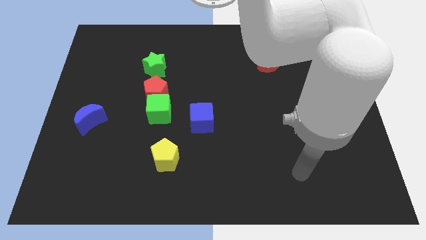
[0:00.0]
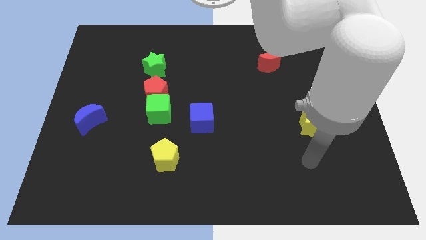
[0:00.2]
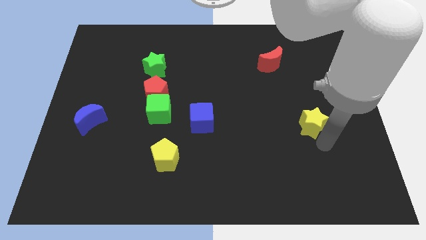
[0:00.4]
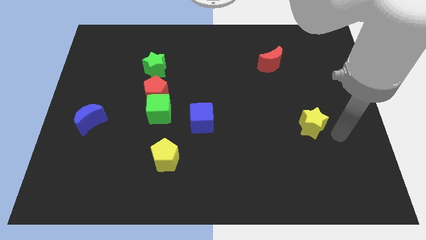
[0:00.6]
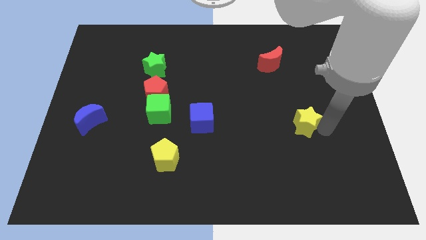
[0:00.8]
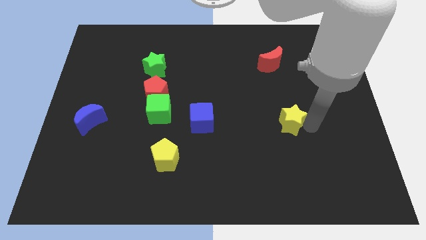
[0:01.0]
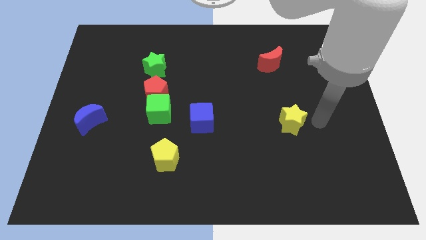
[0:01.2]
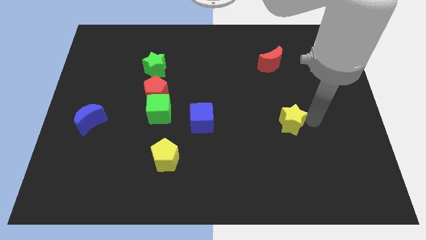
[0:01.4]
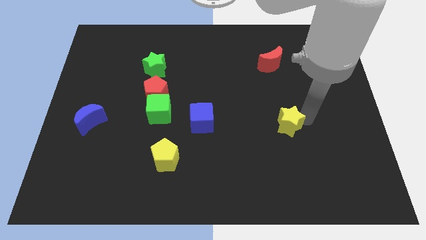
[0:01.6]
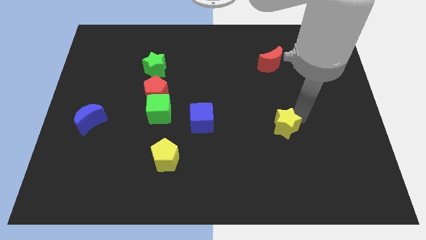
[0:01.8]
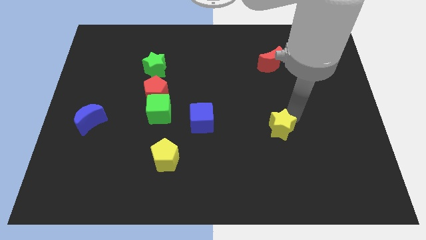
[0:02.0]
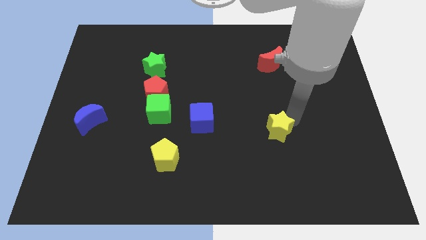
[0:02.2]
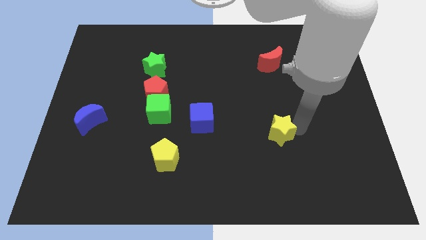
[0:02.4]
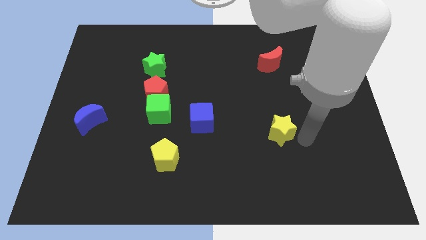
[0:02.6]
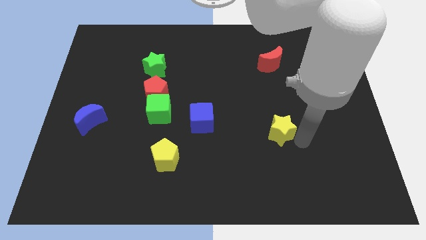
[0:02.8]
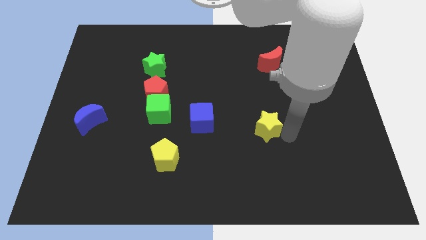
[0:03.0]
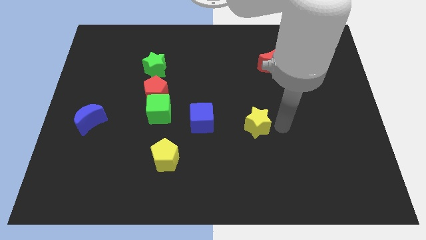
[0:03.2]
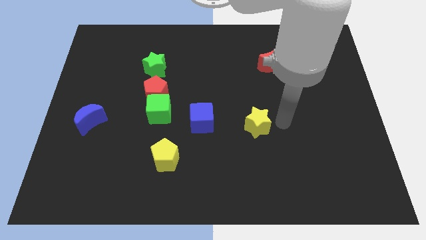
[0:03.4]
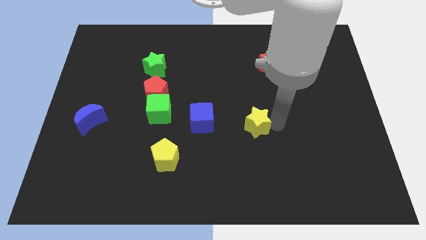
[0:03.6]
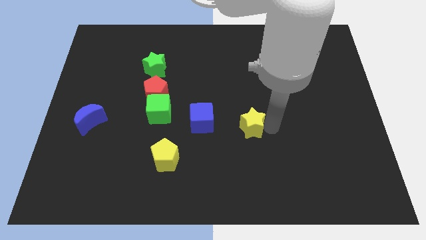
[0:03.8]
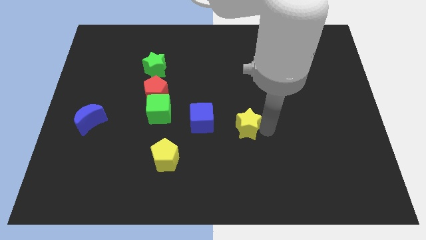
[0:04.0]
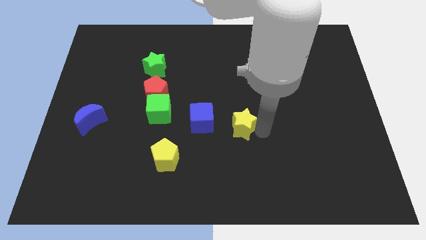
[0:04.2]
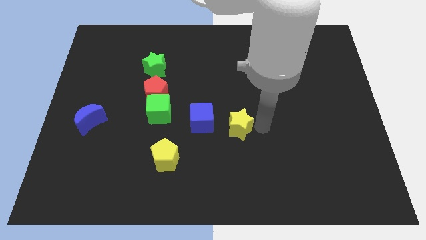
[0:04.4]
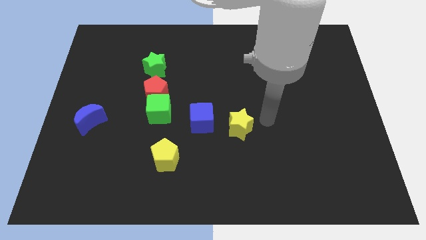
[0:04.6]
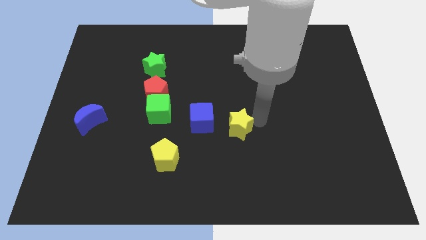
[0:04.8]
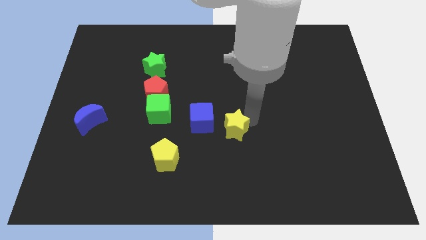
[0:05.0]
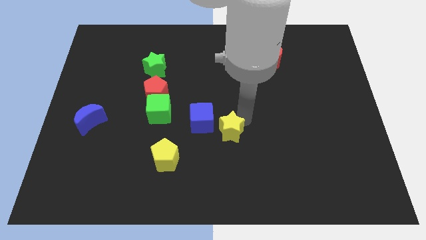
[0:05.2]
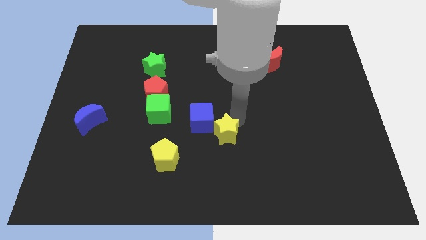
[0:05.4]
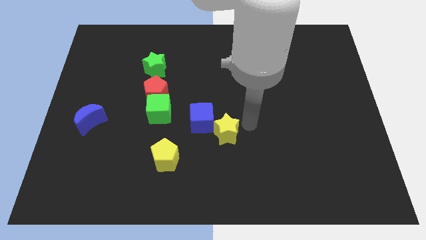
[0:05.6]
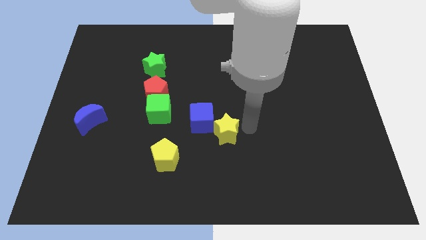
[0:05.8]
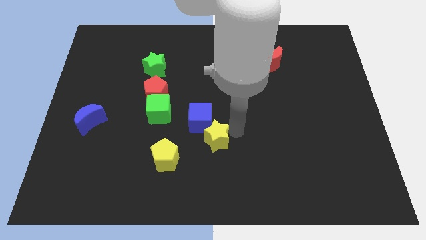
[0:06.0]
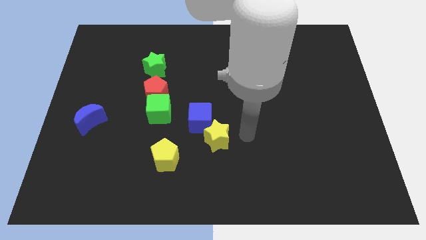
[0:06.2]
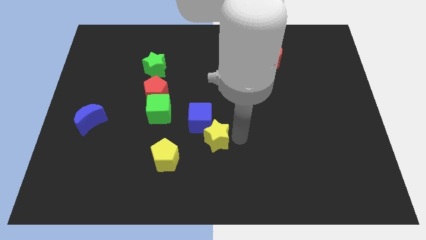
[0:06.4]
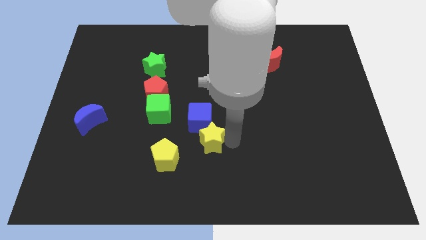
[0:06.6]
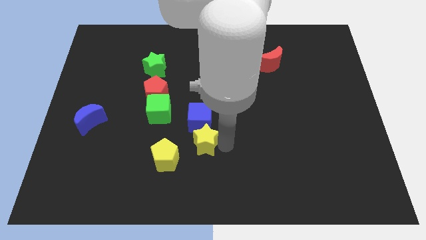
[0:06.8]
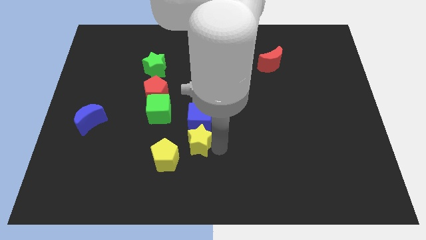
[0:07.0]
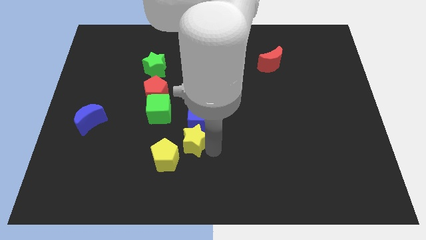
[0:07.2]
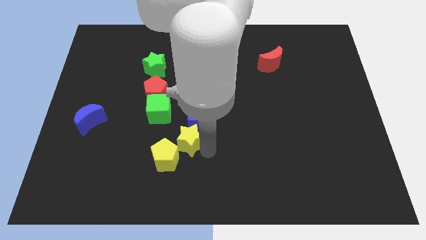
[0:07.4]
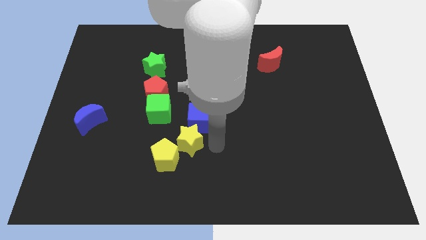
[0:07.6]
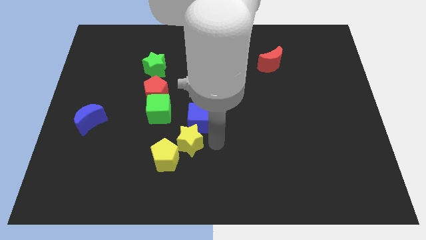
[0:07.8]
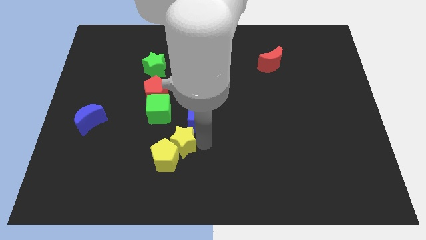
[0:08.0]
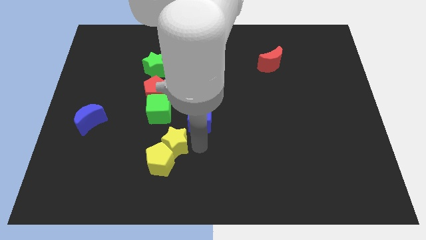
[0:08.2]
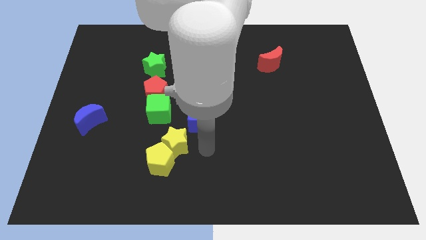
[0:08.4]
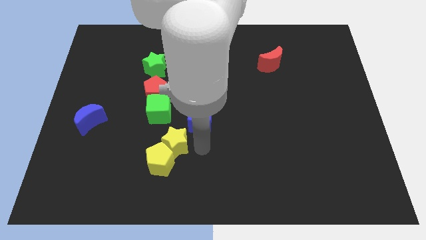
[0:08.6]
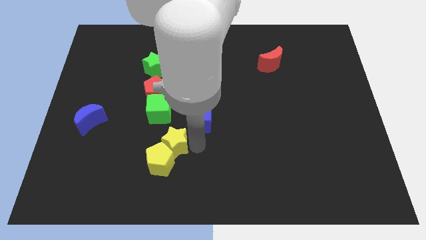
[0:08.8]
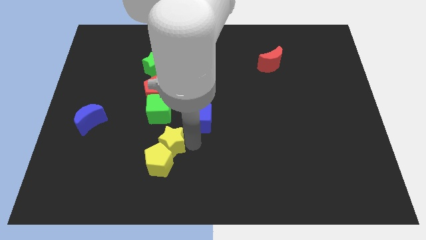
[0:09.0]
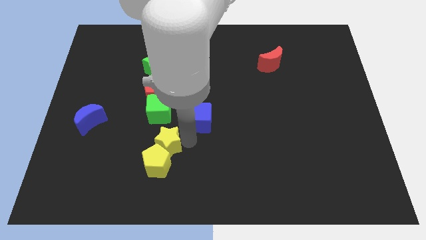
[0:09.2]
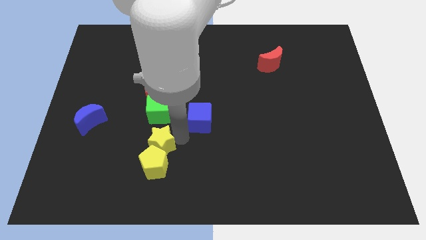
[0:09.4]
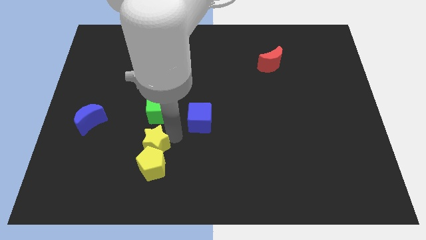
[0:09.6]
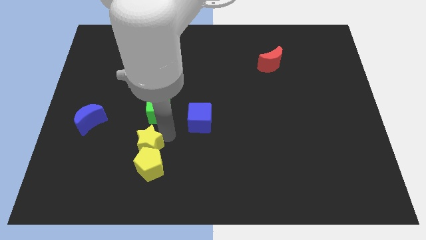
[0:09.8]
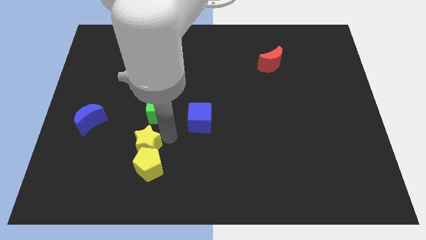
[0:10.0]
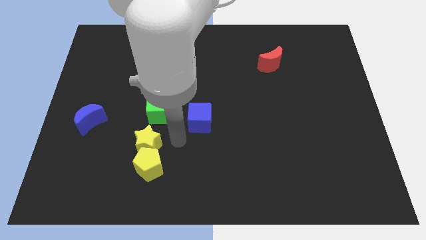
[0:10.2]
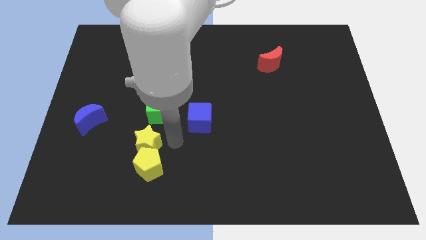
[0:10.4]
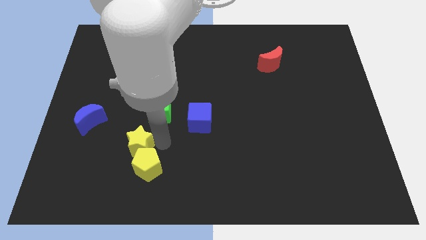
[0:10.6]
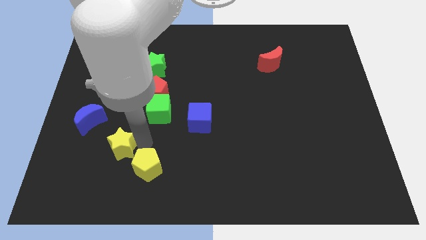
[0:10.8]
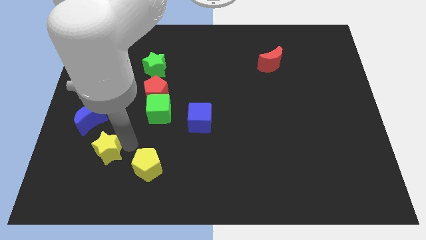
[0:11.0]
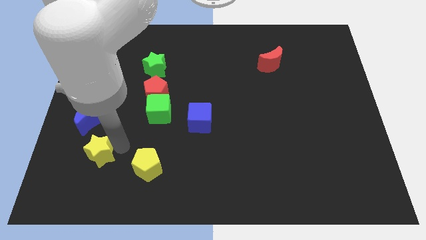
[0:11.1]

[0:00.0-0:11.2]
push the yellow star below the blue moon

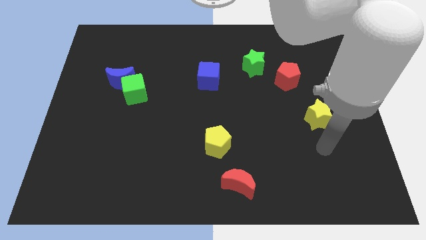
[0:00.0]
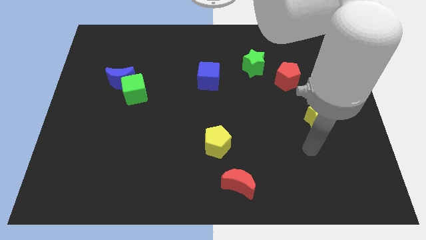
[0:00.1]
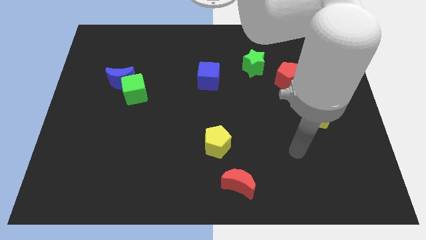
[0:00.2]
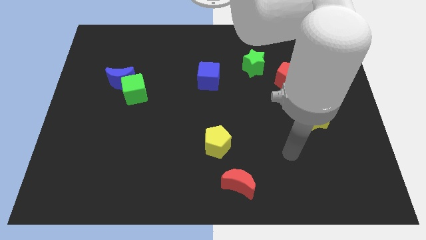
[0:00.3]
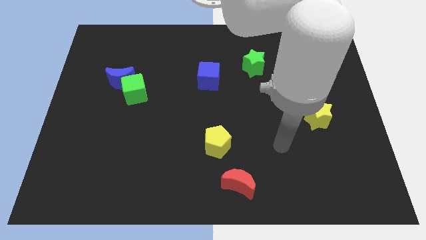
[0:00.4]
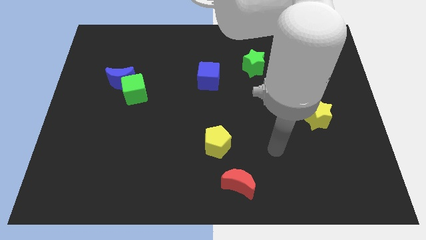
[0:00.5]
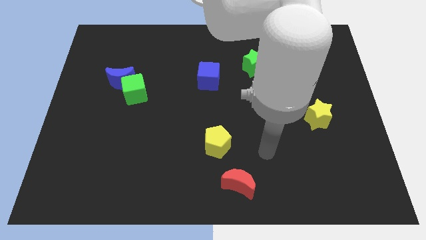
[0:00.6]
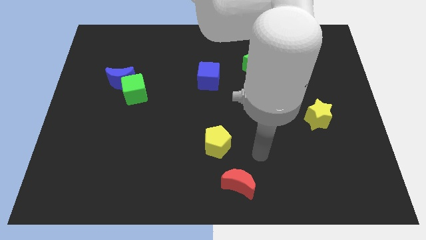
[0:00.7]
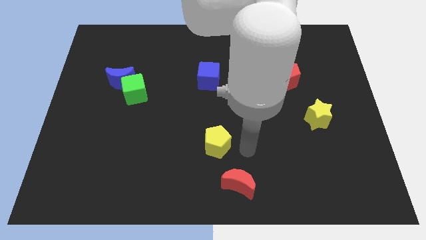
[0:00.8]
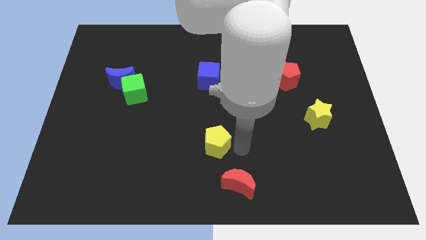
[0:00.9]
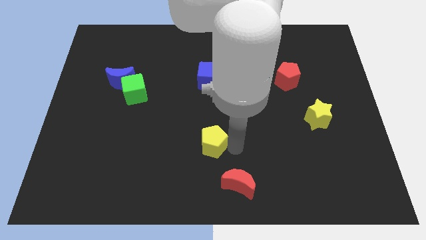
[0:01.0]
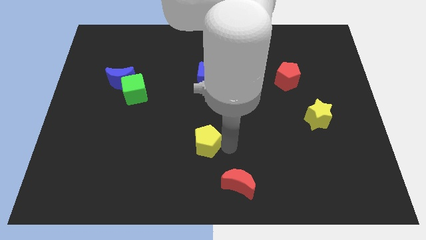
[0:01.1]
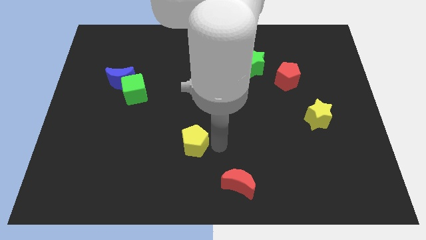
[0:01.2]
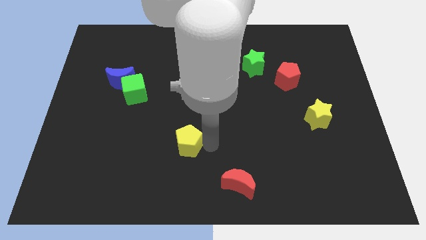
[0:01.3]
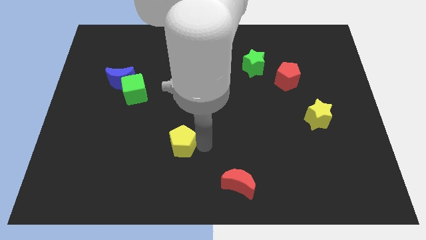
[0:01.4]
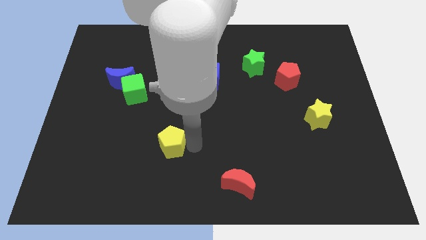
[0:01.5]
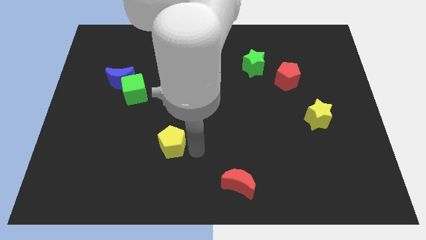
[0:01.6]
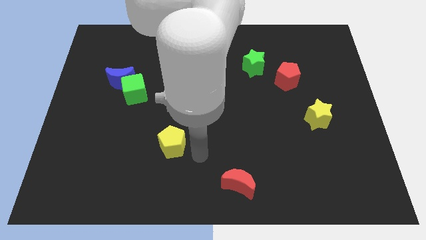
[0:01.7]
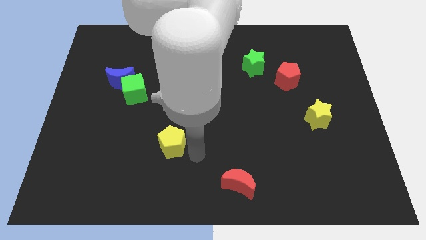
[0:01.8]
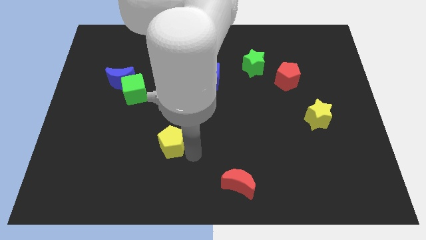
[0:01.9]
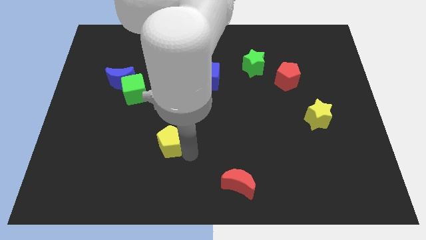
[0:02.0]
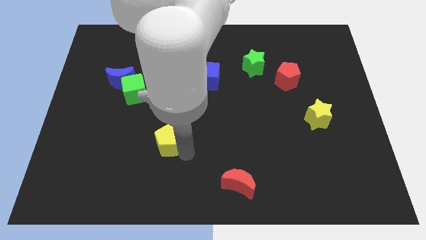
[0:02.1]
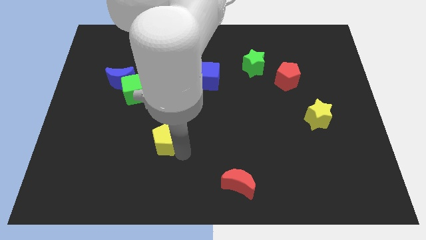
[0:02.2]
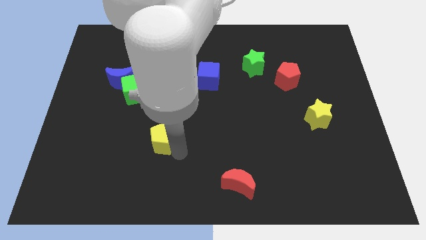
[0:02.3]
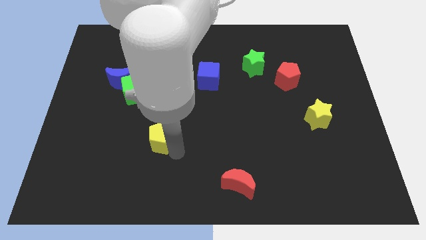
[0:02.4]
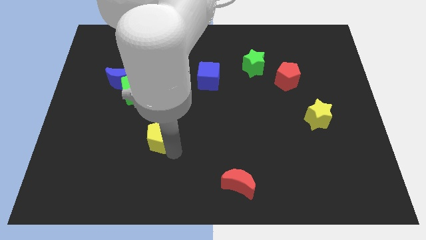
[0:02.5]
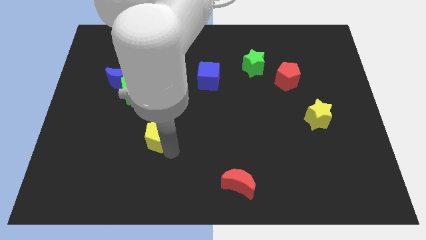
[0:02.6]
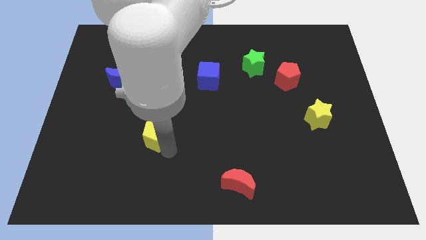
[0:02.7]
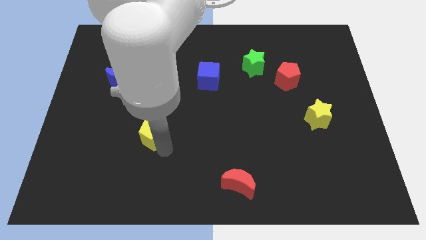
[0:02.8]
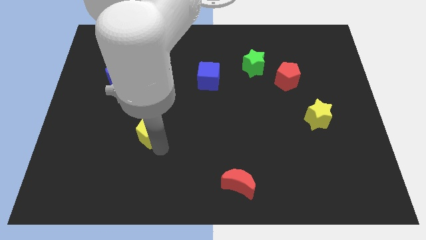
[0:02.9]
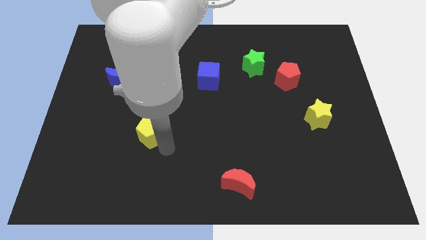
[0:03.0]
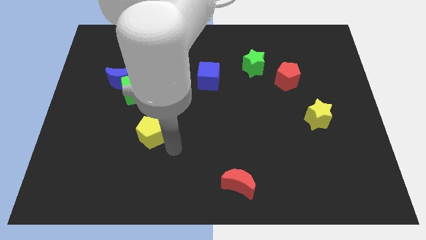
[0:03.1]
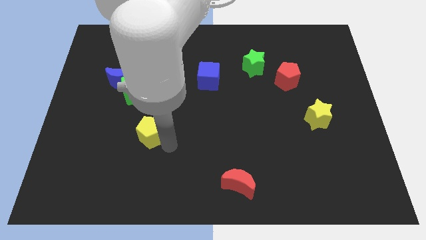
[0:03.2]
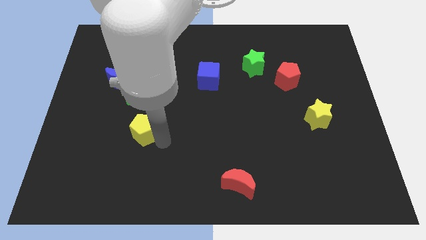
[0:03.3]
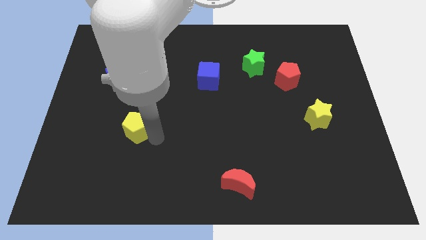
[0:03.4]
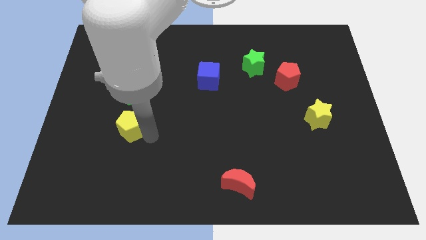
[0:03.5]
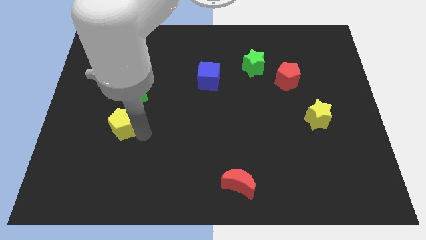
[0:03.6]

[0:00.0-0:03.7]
put the yellow pentagon below the blue moon
